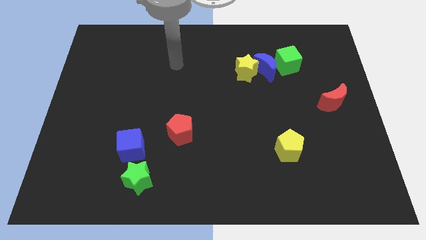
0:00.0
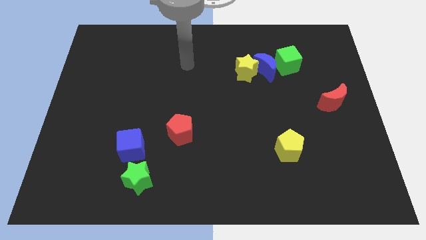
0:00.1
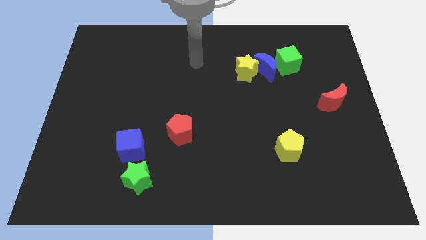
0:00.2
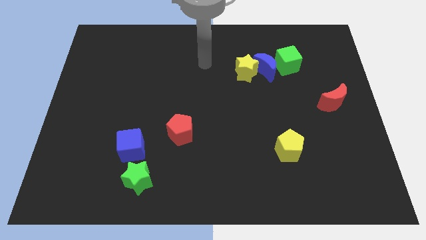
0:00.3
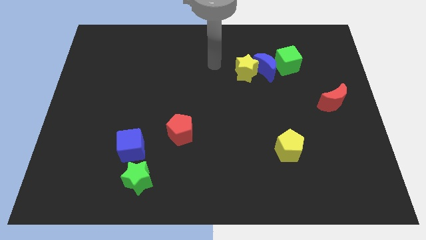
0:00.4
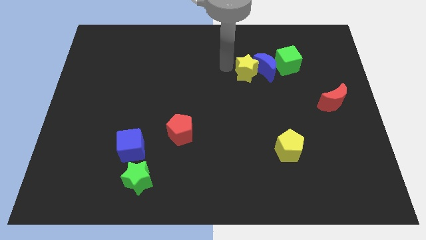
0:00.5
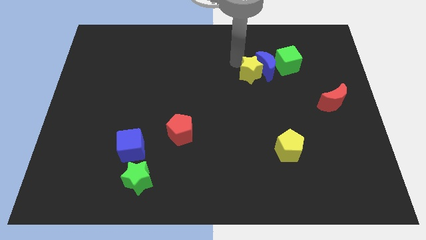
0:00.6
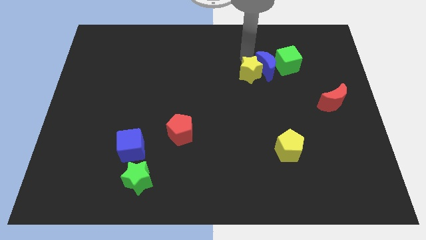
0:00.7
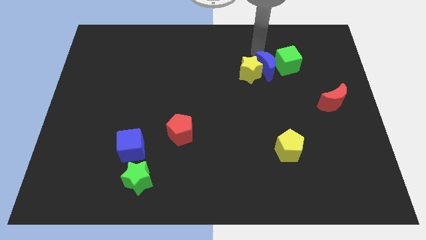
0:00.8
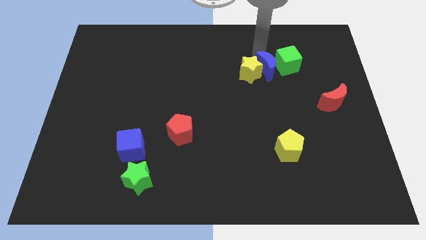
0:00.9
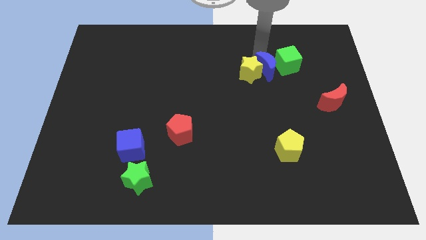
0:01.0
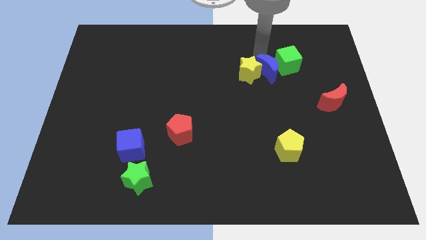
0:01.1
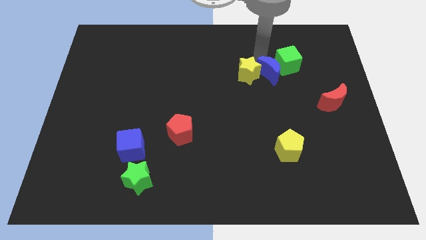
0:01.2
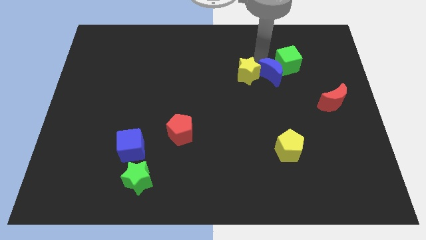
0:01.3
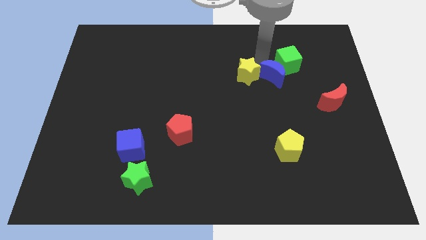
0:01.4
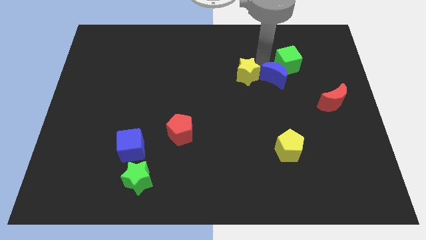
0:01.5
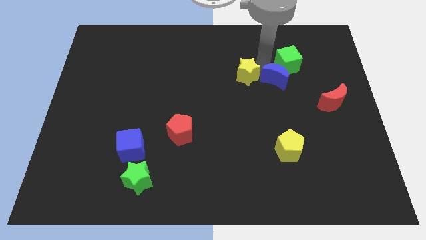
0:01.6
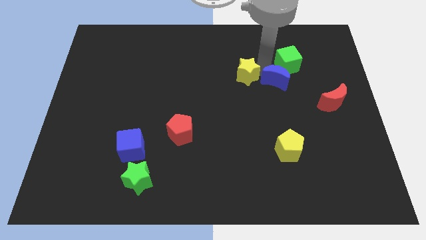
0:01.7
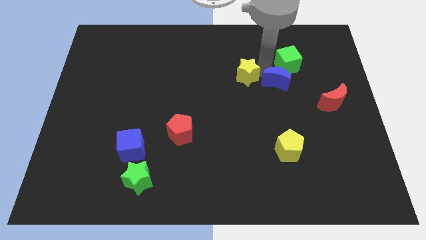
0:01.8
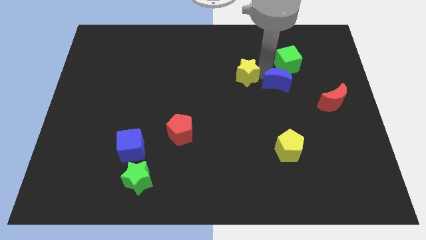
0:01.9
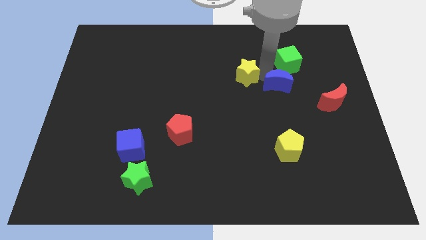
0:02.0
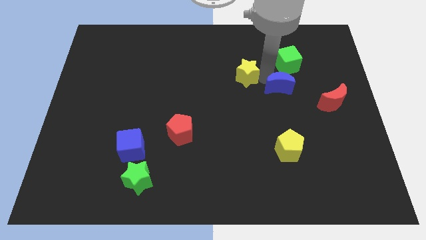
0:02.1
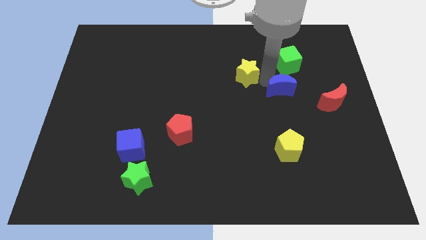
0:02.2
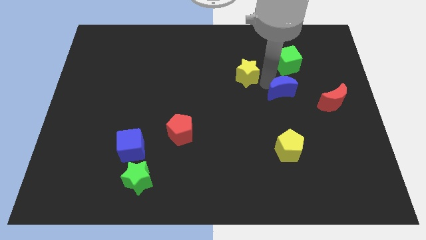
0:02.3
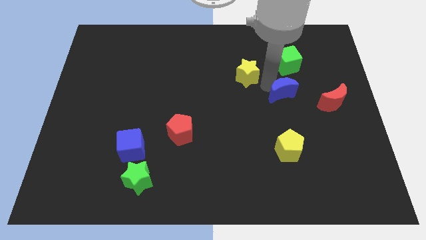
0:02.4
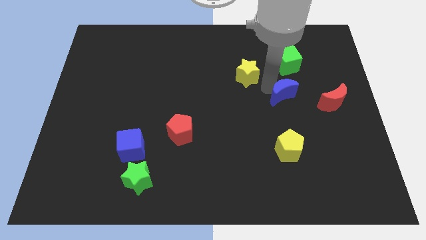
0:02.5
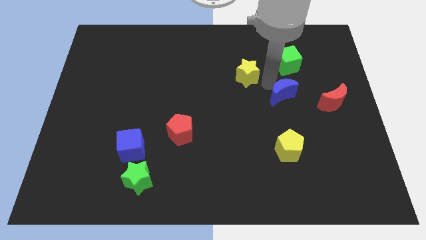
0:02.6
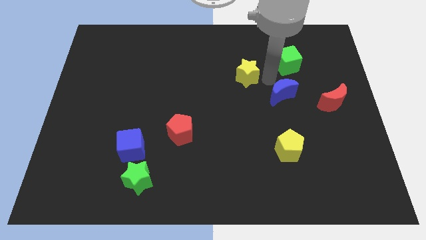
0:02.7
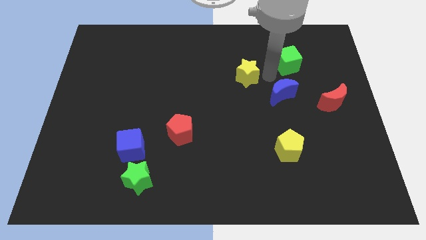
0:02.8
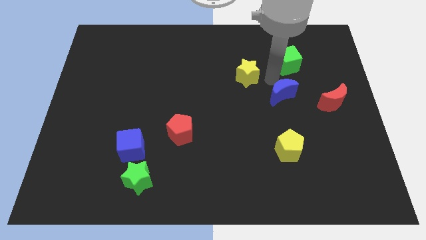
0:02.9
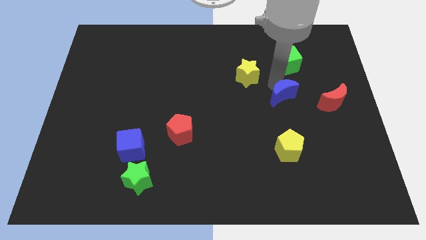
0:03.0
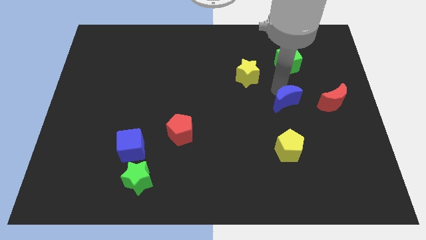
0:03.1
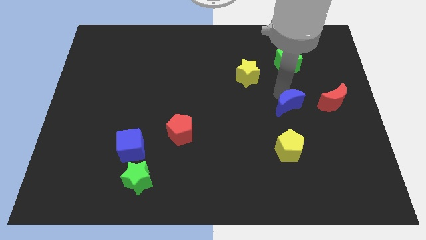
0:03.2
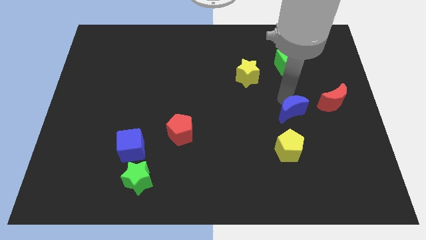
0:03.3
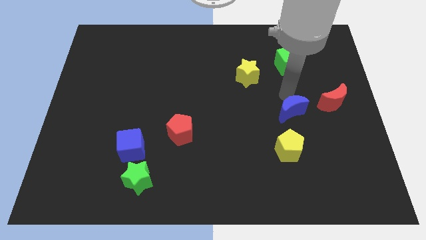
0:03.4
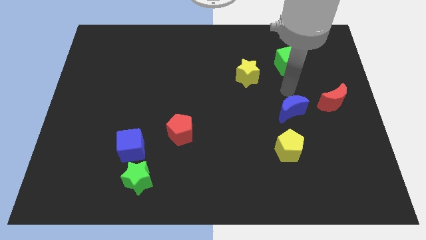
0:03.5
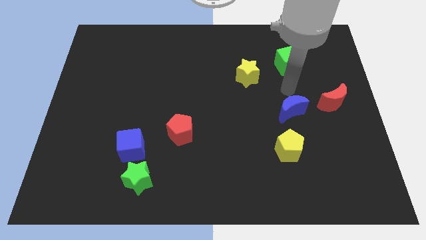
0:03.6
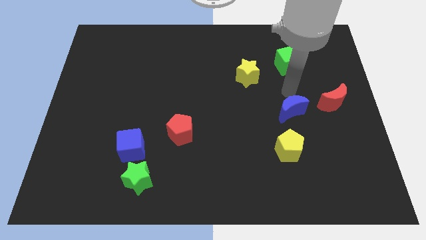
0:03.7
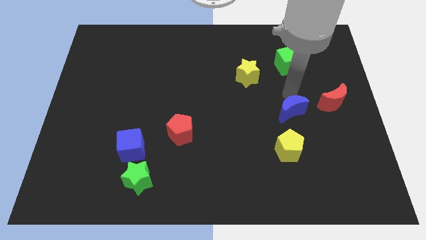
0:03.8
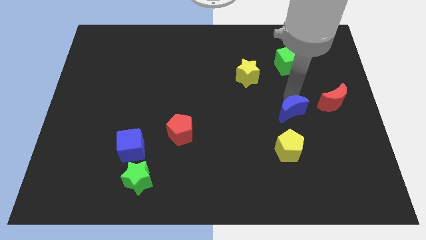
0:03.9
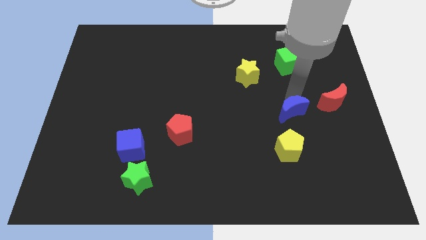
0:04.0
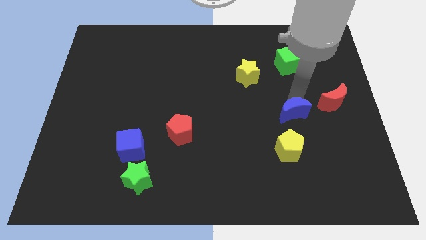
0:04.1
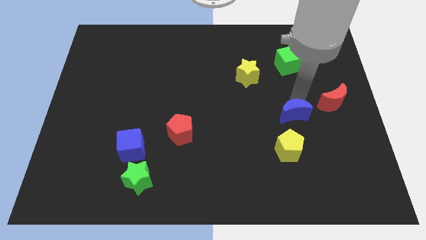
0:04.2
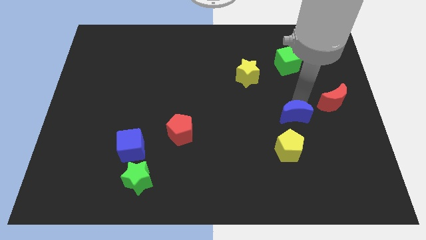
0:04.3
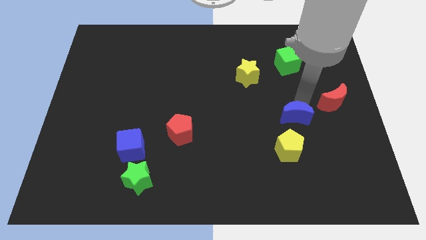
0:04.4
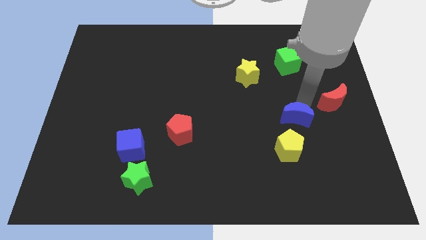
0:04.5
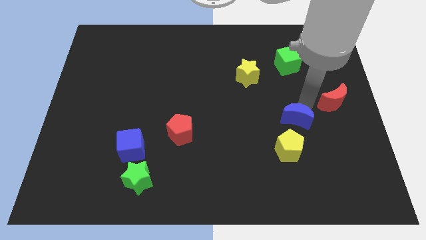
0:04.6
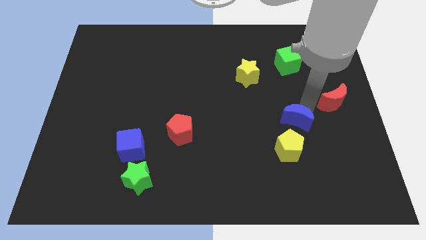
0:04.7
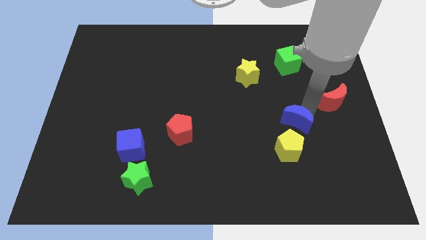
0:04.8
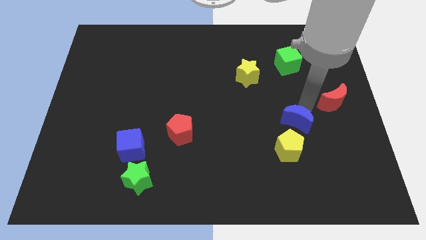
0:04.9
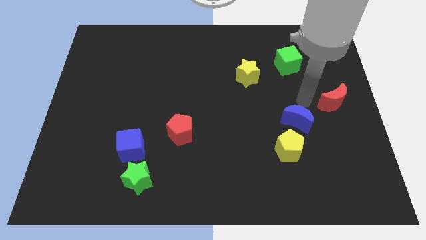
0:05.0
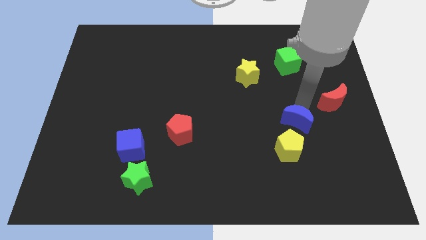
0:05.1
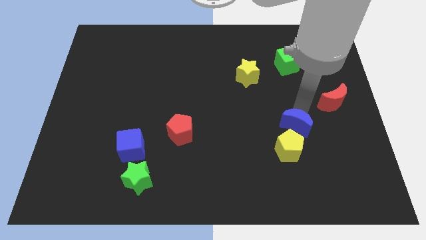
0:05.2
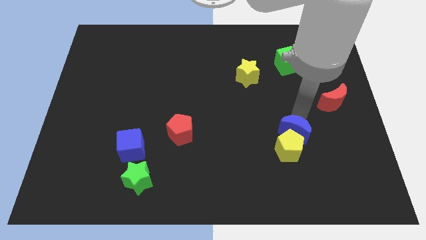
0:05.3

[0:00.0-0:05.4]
put the blue moon towards the yellow pentagon

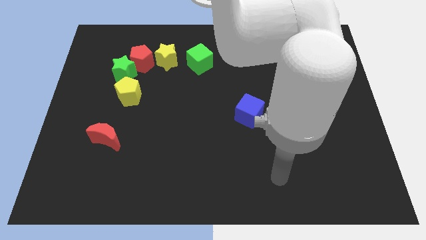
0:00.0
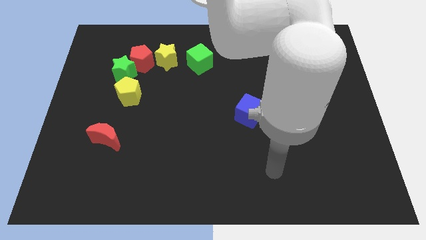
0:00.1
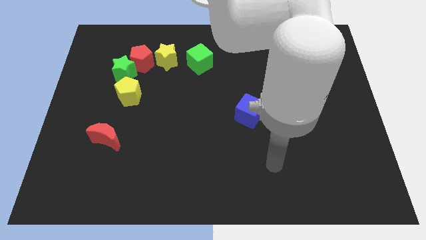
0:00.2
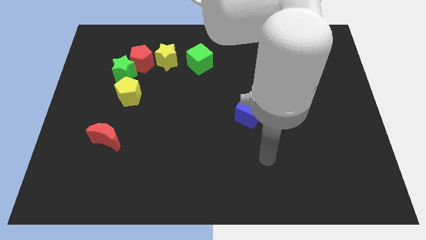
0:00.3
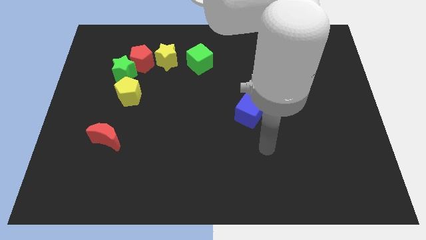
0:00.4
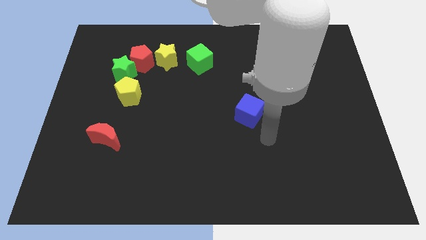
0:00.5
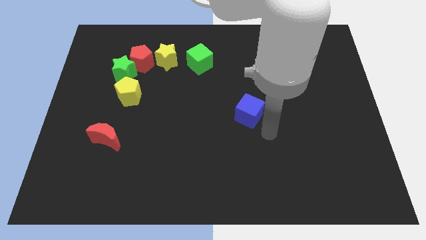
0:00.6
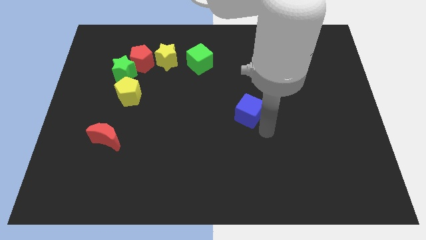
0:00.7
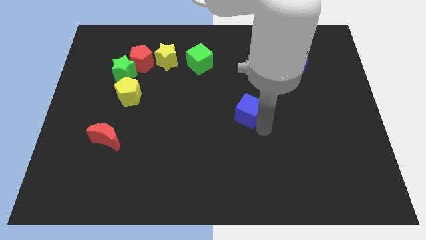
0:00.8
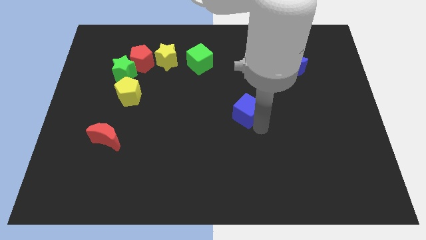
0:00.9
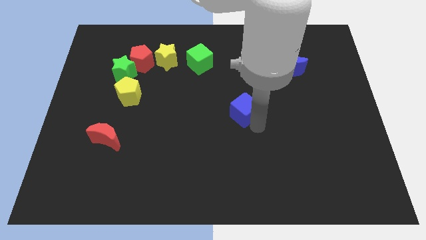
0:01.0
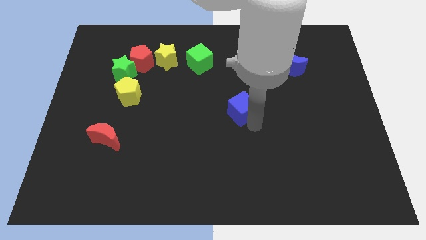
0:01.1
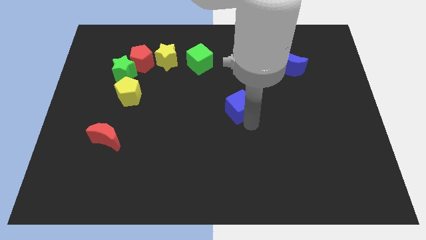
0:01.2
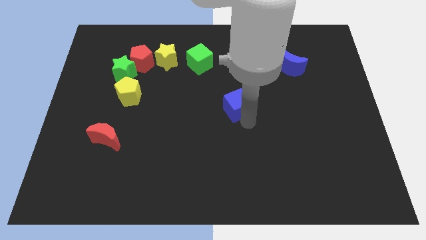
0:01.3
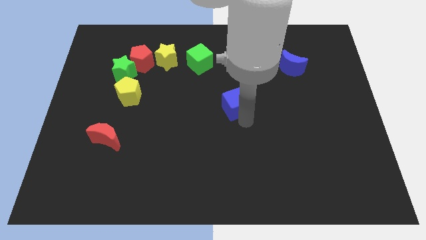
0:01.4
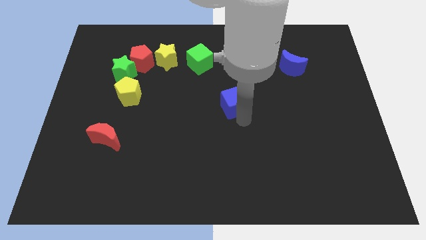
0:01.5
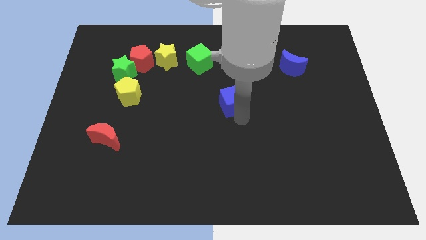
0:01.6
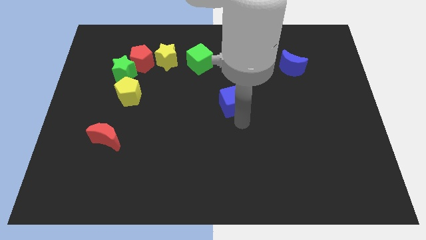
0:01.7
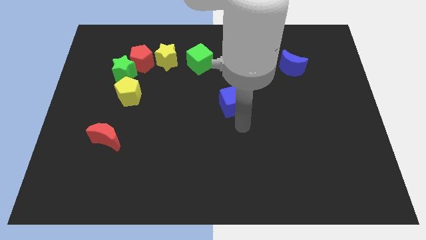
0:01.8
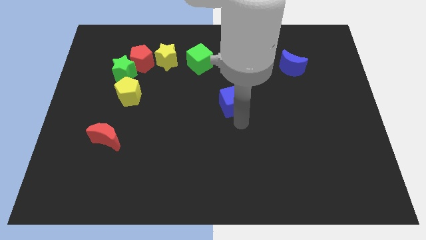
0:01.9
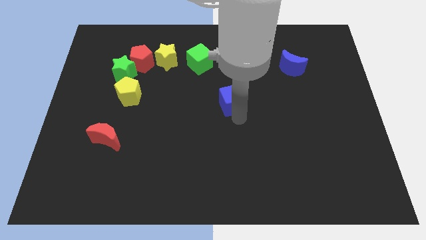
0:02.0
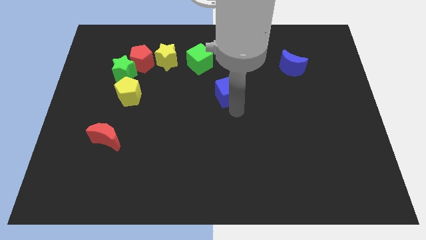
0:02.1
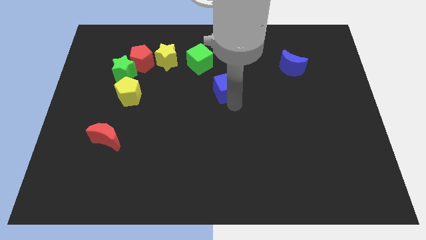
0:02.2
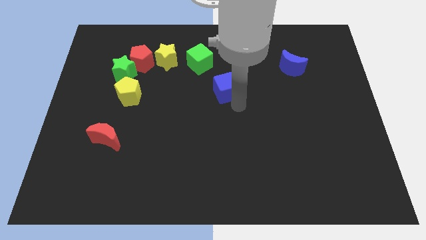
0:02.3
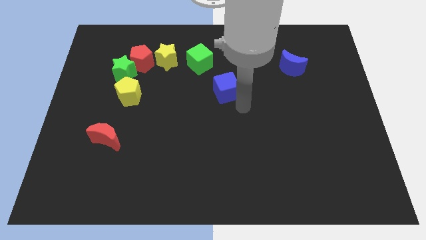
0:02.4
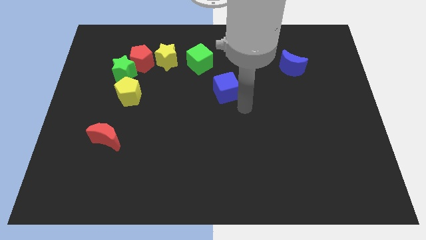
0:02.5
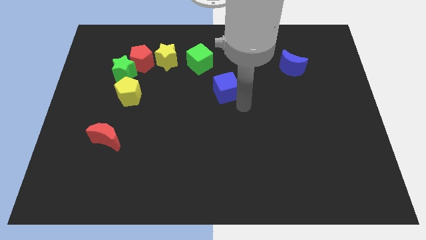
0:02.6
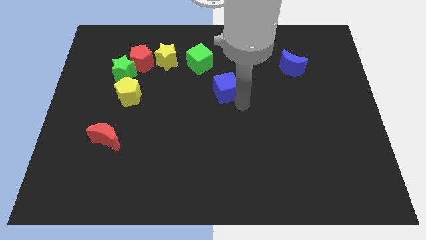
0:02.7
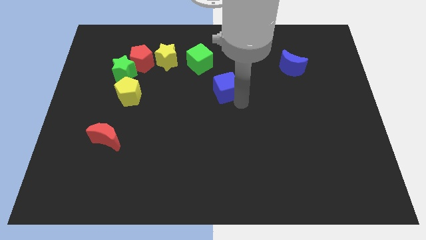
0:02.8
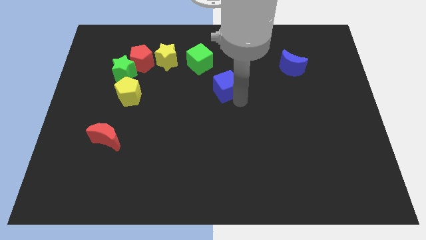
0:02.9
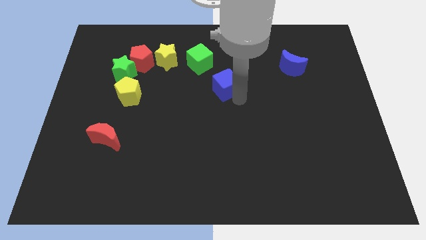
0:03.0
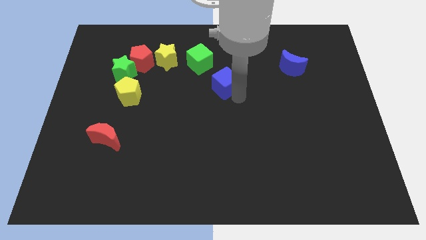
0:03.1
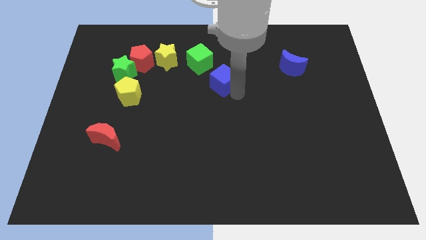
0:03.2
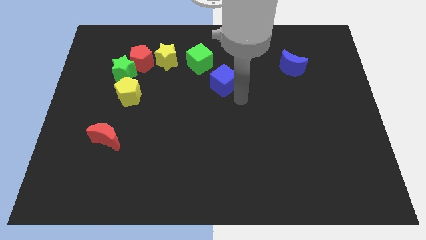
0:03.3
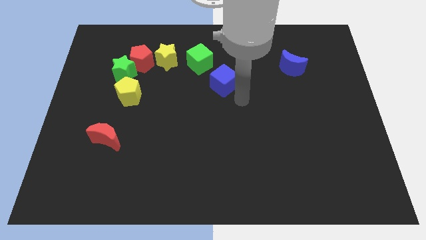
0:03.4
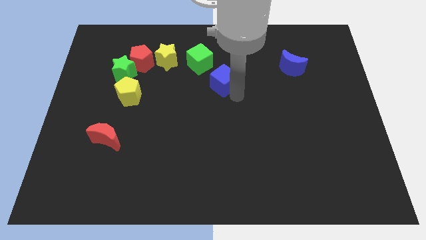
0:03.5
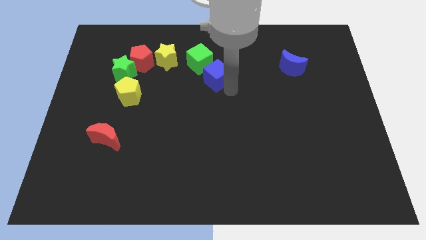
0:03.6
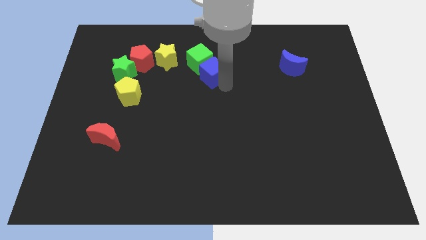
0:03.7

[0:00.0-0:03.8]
slide the blue cube to the green cube
